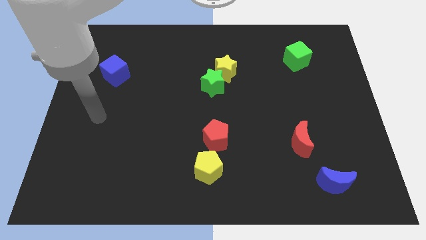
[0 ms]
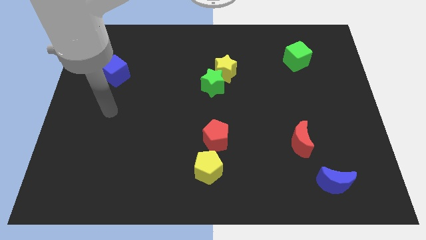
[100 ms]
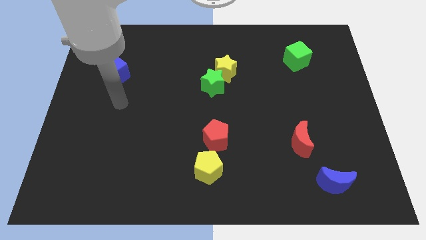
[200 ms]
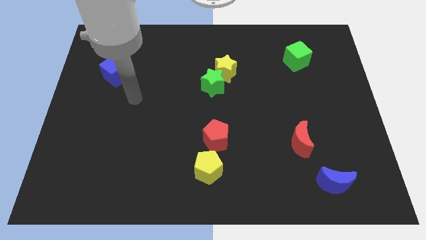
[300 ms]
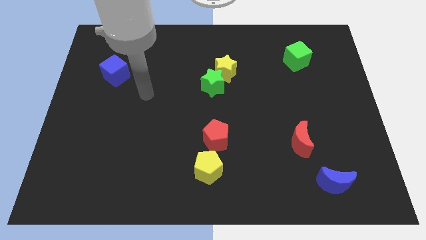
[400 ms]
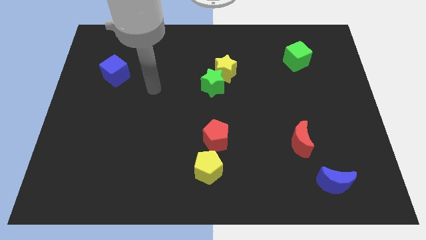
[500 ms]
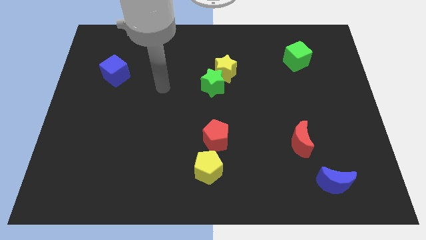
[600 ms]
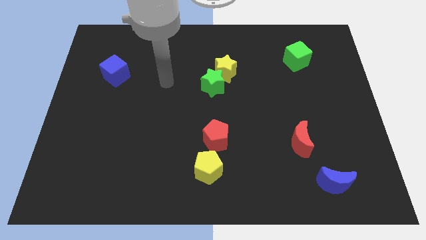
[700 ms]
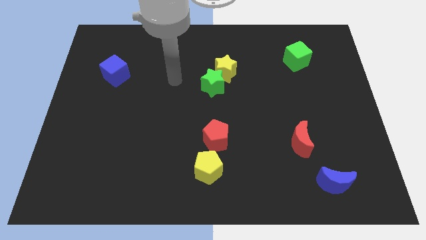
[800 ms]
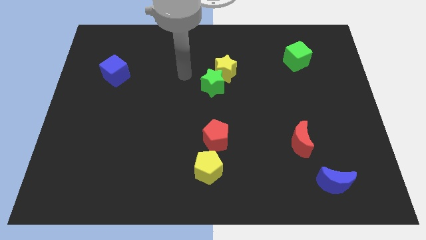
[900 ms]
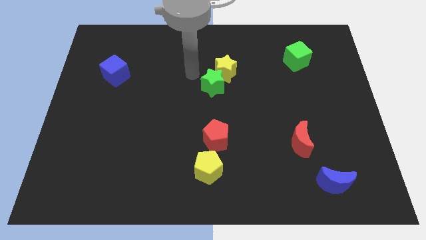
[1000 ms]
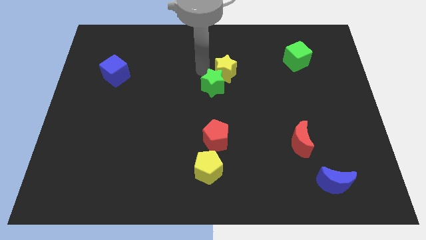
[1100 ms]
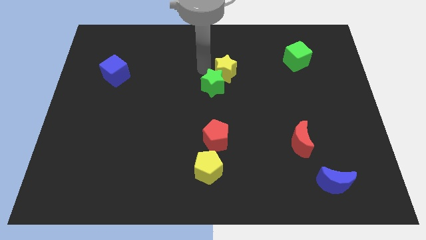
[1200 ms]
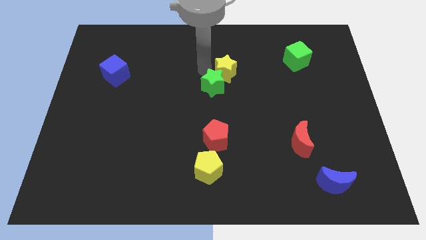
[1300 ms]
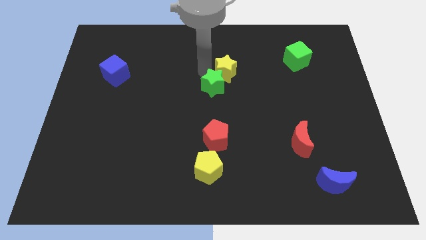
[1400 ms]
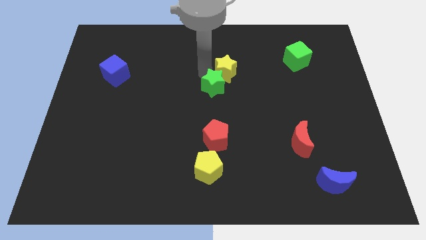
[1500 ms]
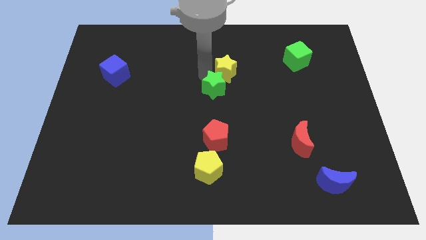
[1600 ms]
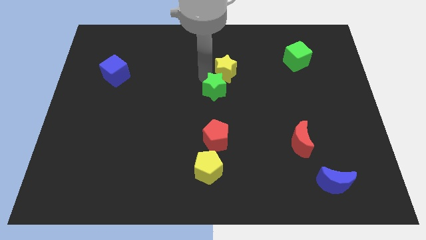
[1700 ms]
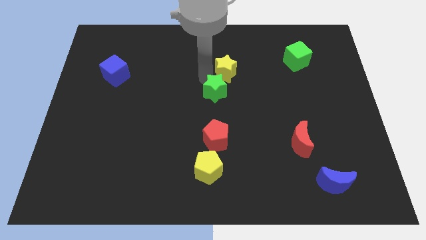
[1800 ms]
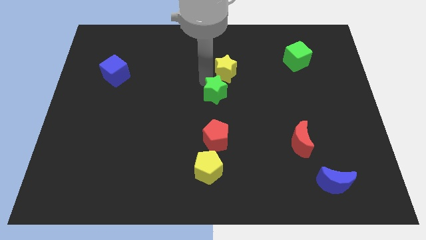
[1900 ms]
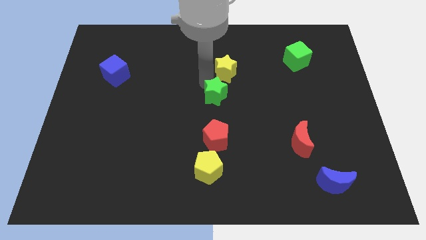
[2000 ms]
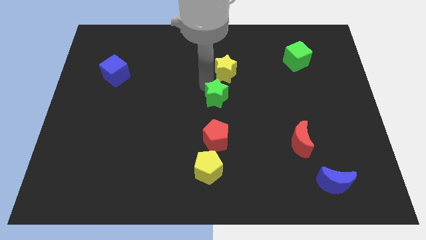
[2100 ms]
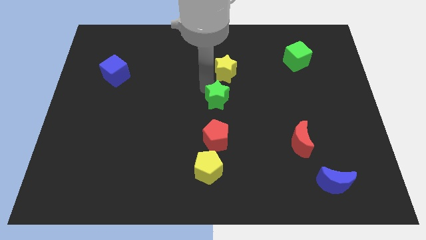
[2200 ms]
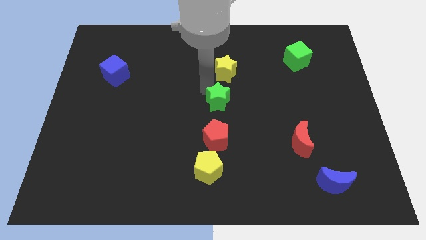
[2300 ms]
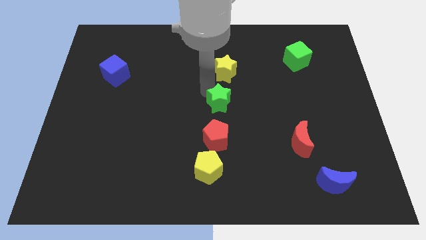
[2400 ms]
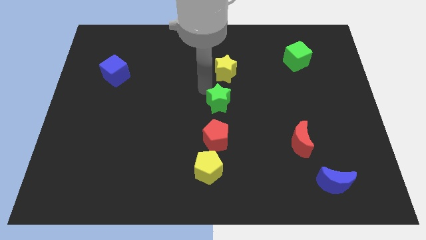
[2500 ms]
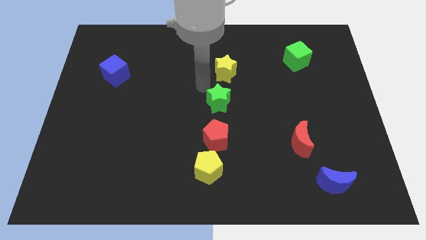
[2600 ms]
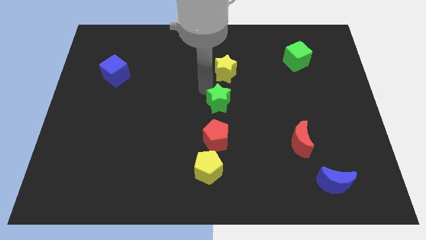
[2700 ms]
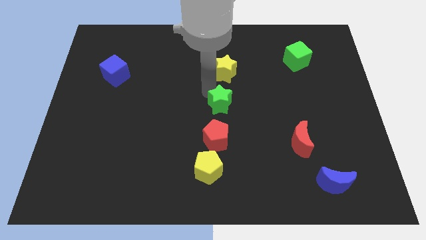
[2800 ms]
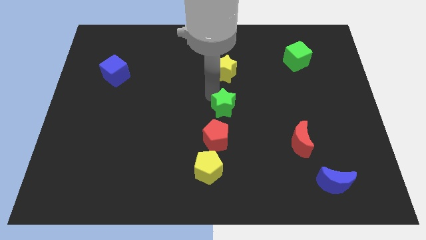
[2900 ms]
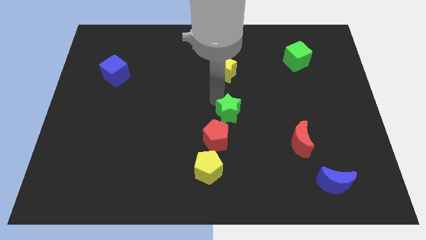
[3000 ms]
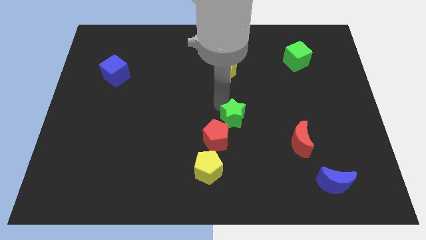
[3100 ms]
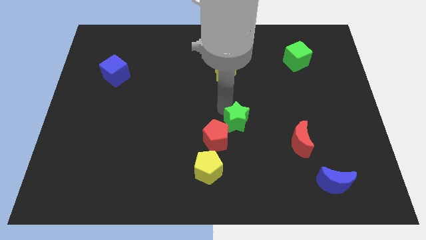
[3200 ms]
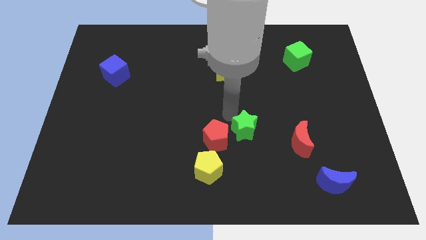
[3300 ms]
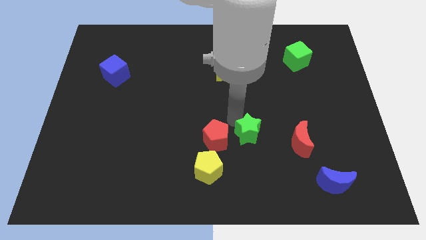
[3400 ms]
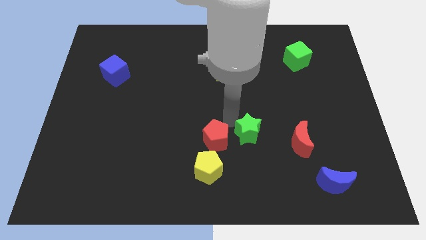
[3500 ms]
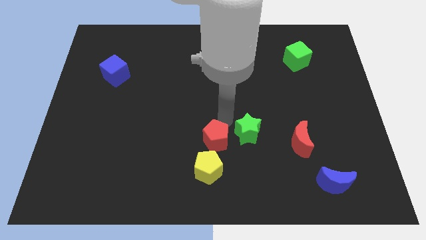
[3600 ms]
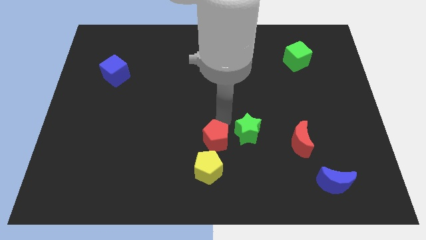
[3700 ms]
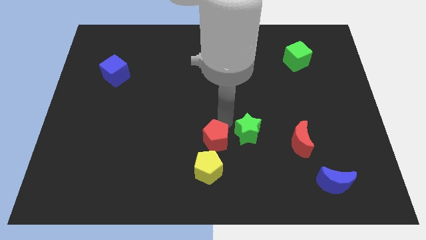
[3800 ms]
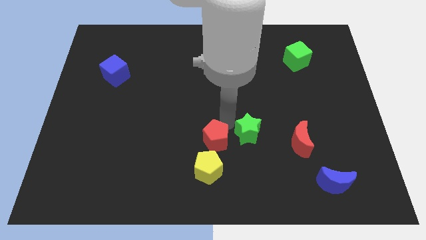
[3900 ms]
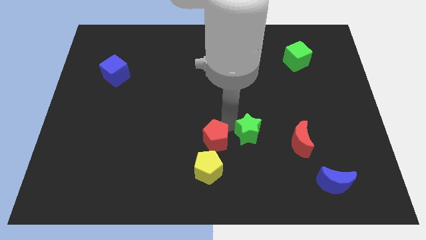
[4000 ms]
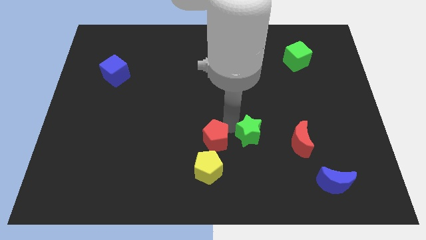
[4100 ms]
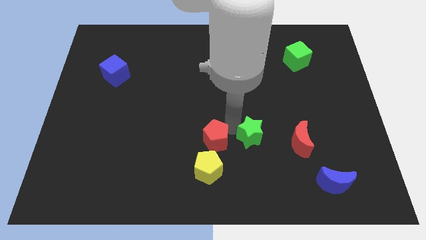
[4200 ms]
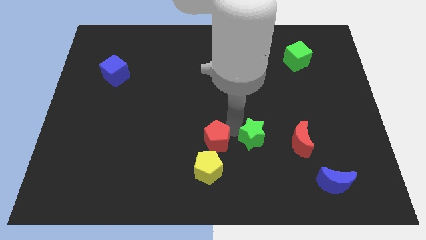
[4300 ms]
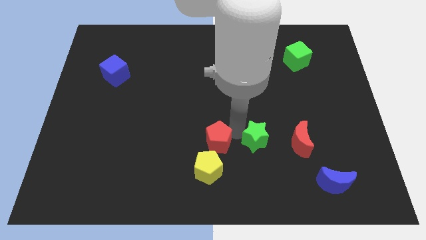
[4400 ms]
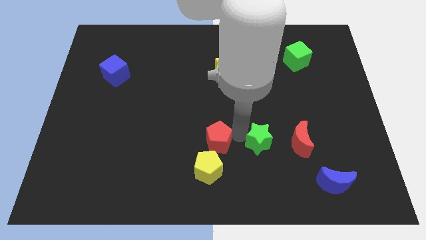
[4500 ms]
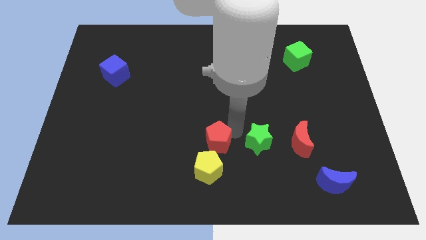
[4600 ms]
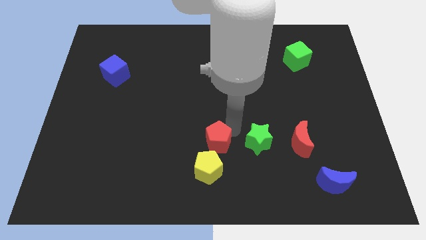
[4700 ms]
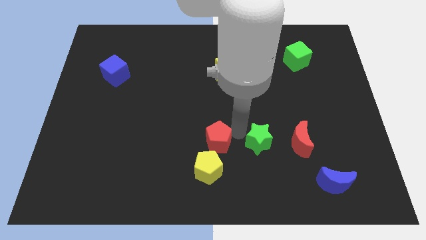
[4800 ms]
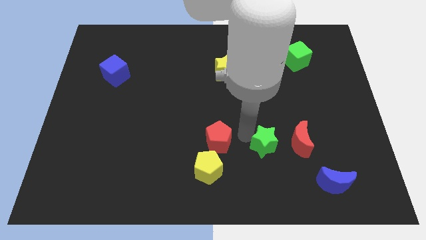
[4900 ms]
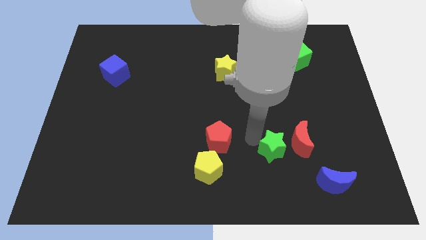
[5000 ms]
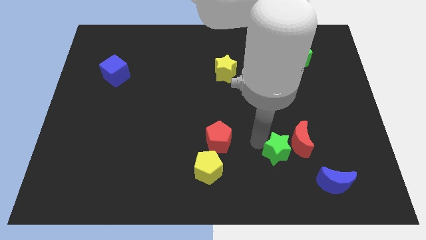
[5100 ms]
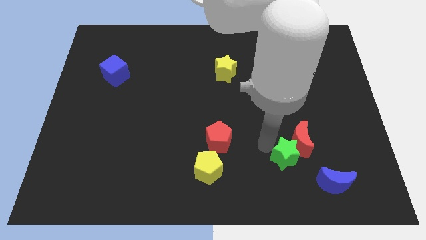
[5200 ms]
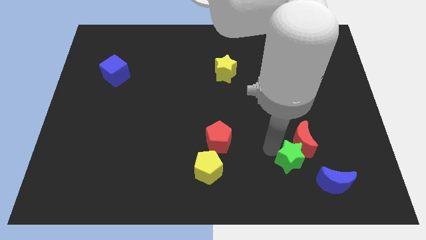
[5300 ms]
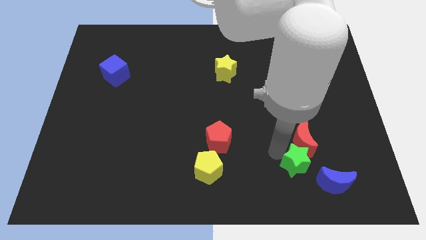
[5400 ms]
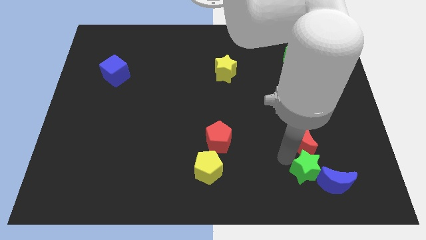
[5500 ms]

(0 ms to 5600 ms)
push the green star next to the blue moon

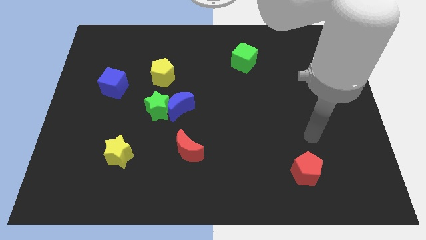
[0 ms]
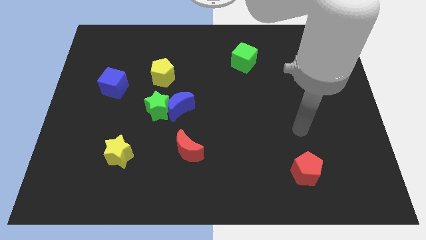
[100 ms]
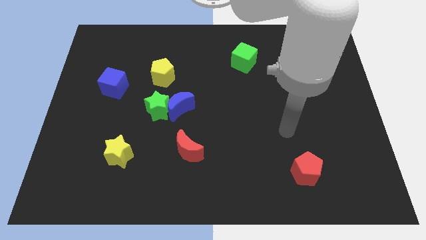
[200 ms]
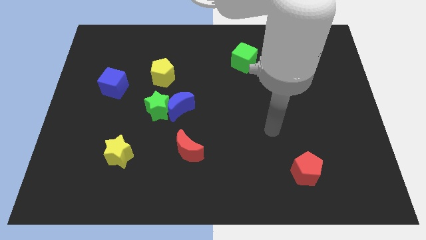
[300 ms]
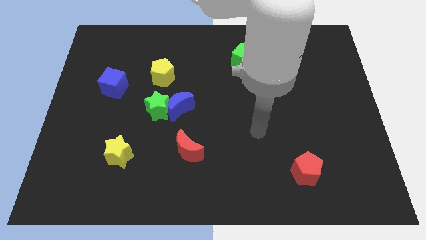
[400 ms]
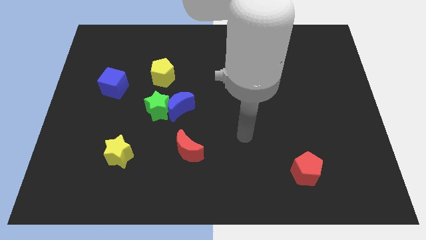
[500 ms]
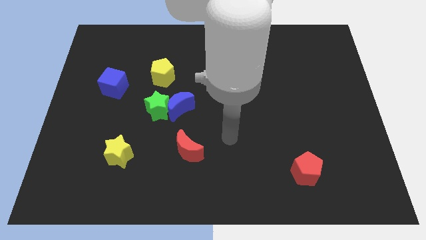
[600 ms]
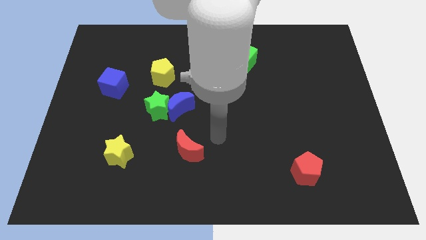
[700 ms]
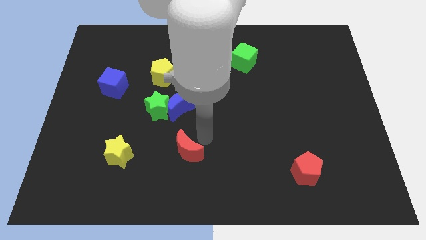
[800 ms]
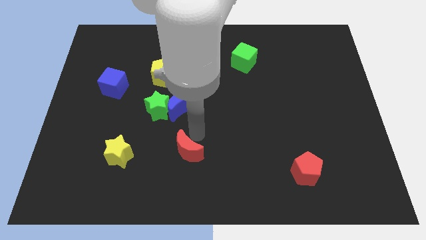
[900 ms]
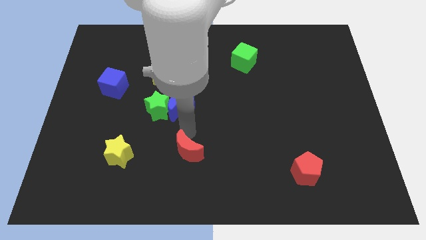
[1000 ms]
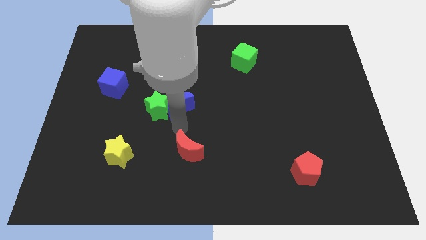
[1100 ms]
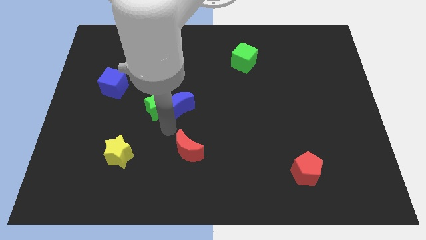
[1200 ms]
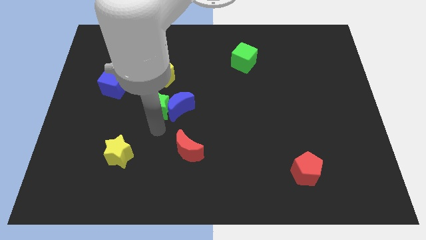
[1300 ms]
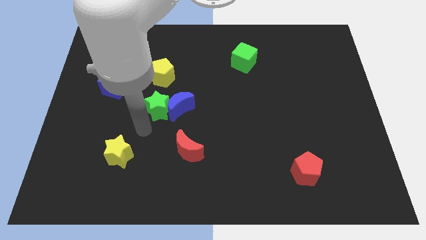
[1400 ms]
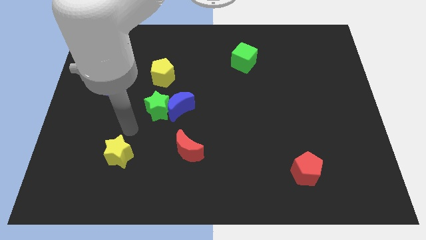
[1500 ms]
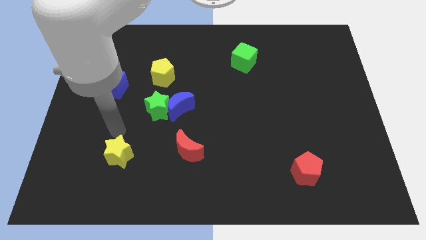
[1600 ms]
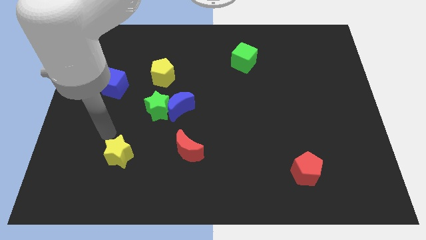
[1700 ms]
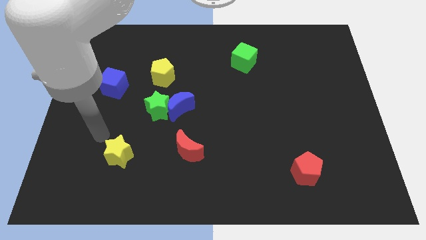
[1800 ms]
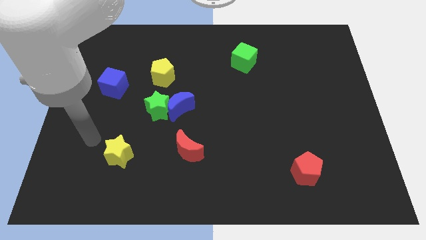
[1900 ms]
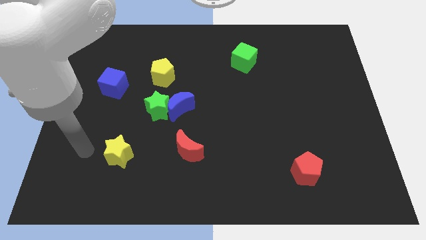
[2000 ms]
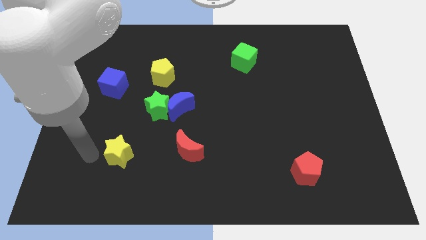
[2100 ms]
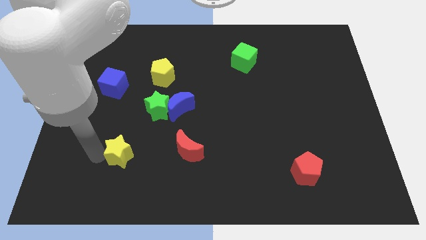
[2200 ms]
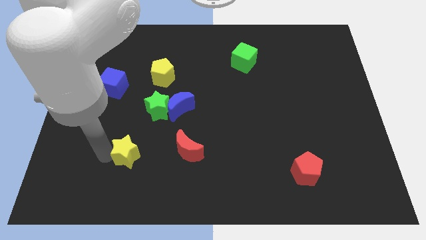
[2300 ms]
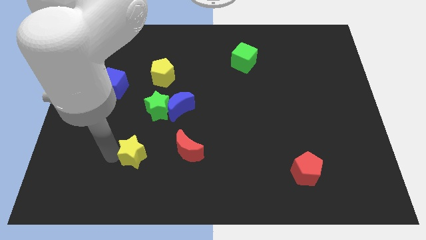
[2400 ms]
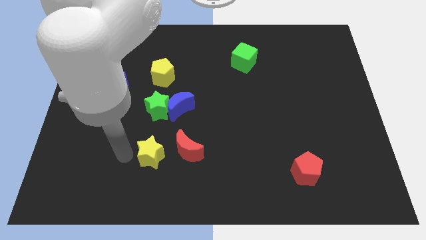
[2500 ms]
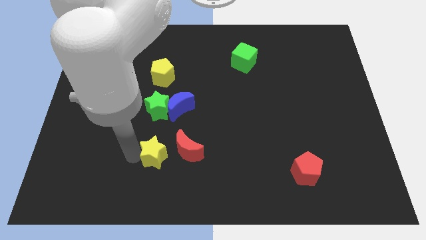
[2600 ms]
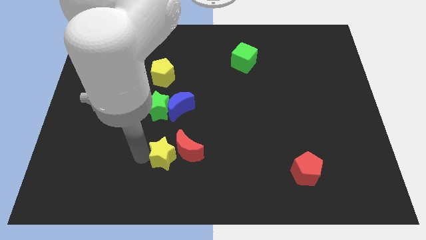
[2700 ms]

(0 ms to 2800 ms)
move the yellow star close to the red moon
